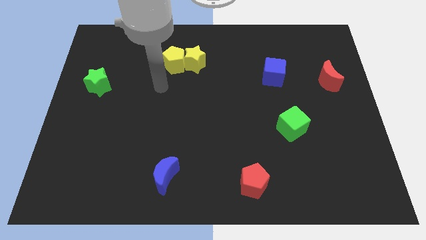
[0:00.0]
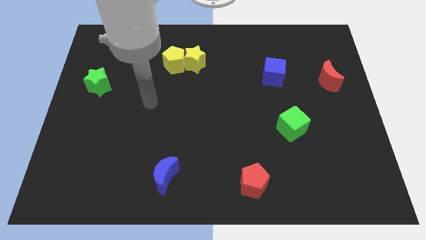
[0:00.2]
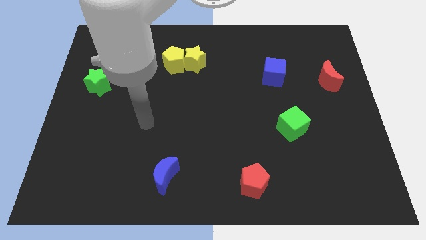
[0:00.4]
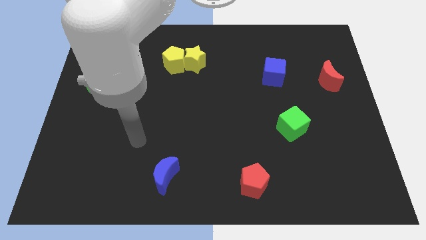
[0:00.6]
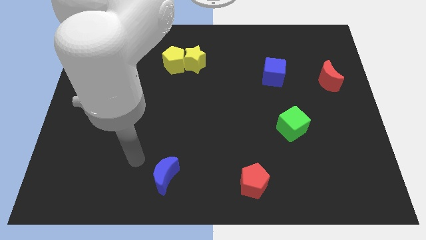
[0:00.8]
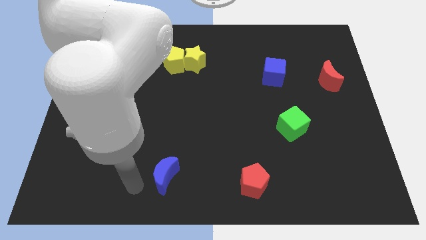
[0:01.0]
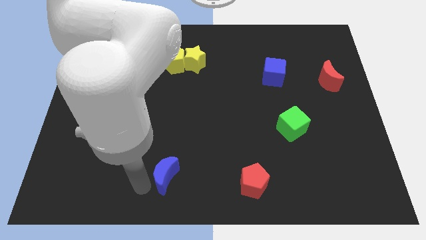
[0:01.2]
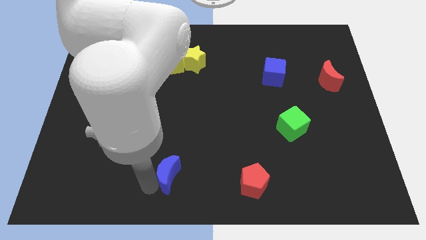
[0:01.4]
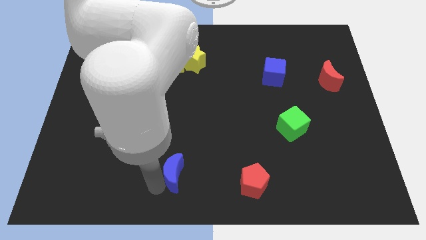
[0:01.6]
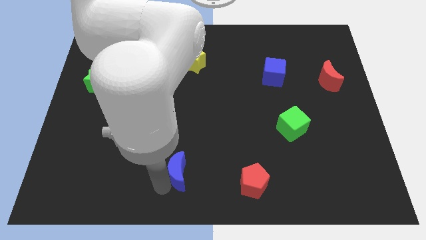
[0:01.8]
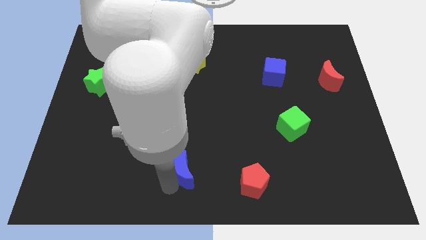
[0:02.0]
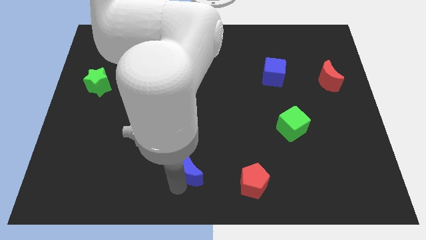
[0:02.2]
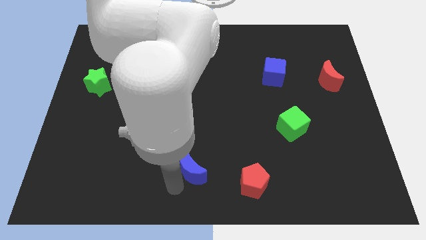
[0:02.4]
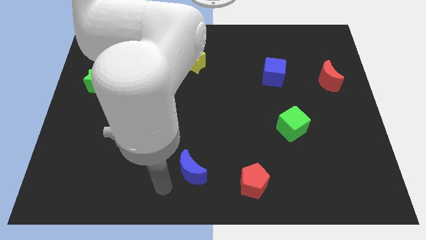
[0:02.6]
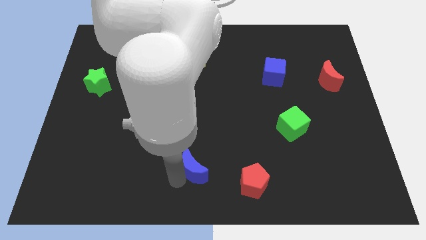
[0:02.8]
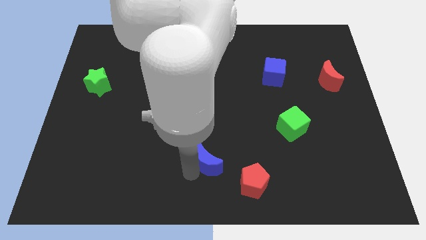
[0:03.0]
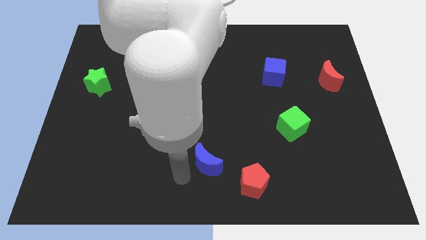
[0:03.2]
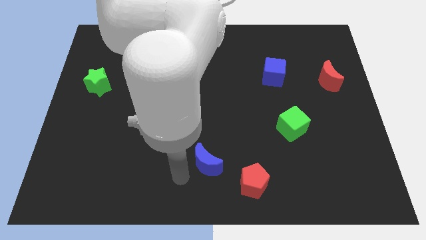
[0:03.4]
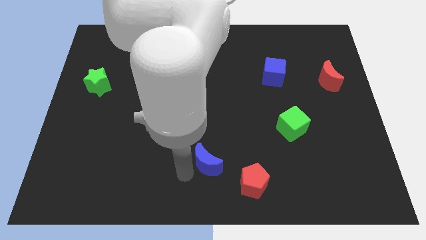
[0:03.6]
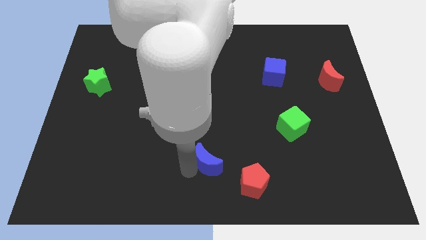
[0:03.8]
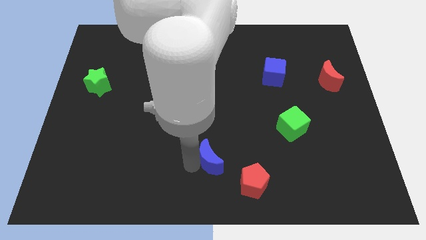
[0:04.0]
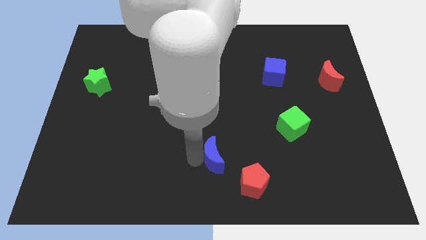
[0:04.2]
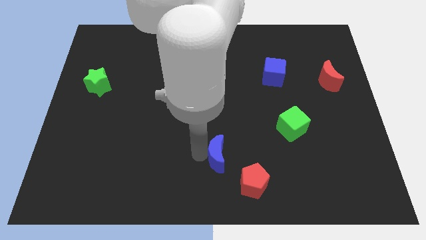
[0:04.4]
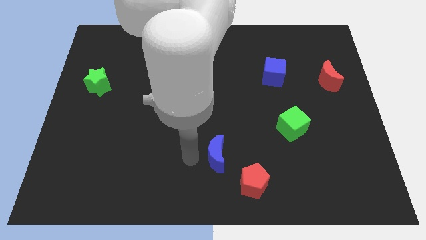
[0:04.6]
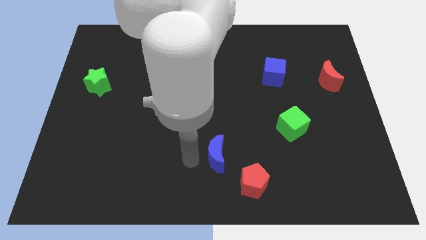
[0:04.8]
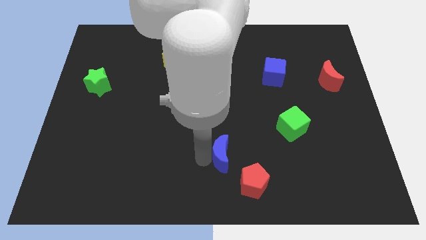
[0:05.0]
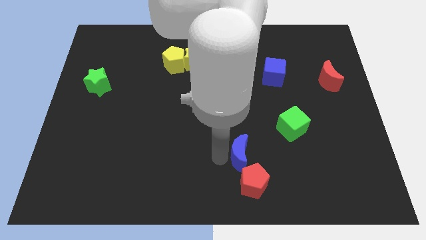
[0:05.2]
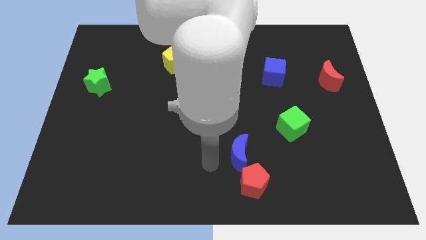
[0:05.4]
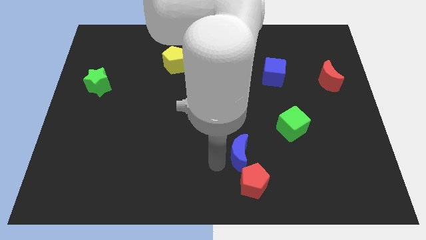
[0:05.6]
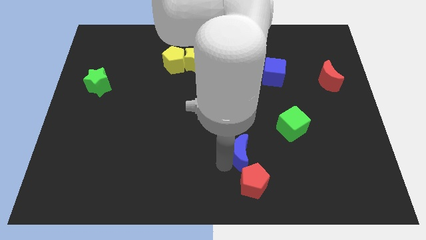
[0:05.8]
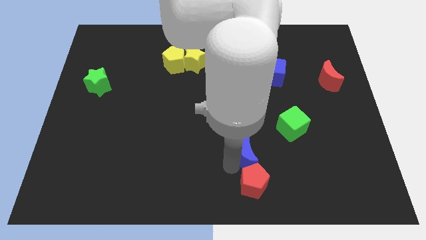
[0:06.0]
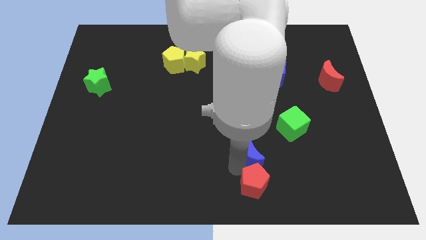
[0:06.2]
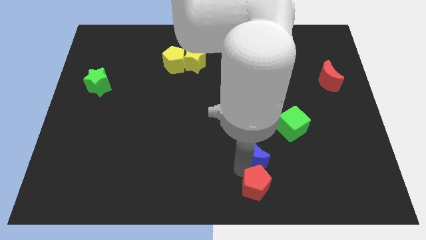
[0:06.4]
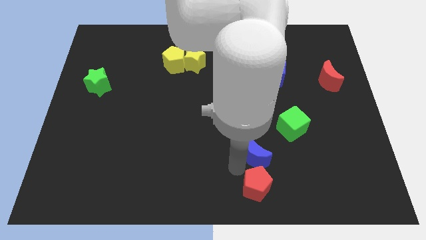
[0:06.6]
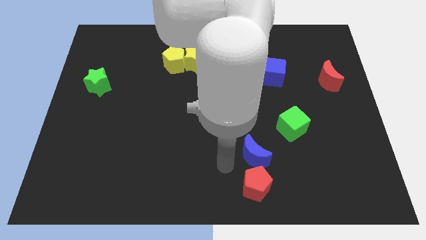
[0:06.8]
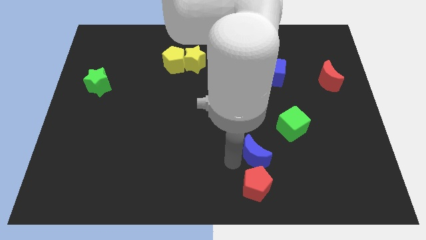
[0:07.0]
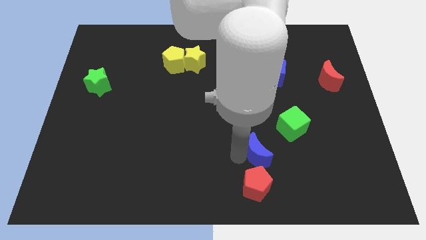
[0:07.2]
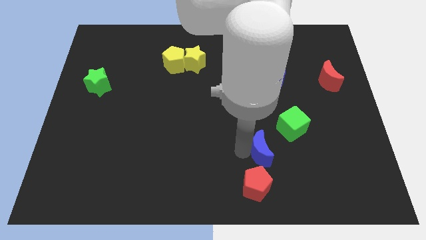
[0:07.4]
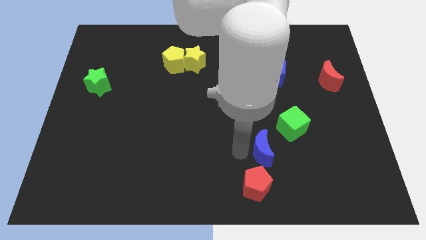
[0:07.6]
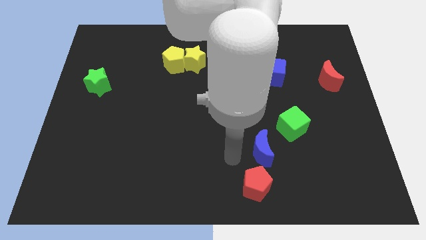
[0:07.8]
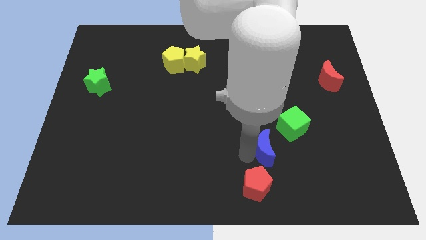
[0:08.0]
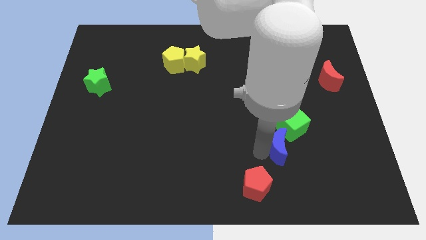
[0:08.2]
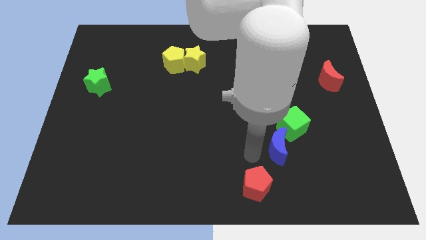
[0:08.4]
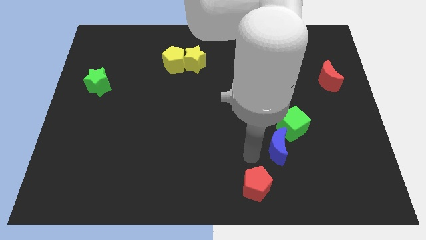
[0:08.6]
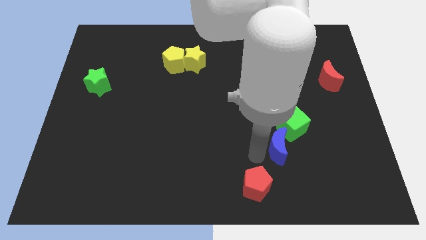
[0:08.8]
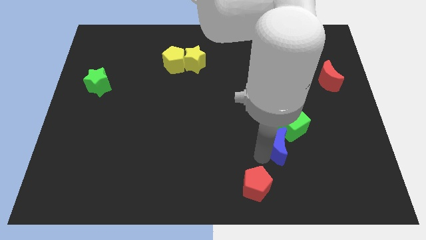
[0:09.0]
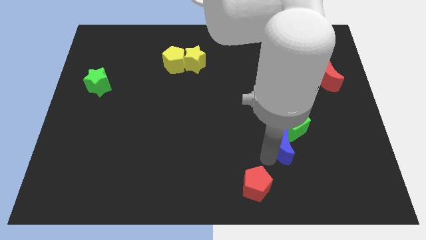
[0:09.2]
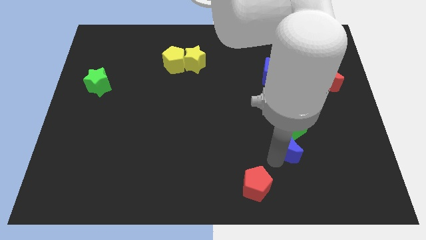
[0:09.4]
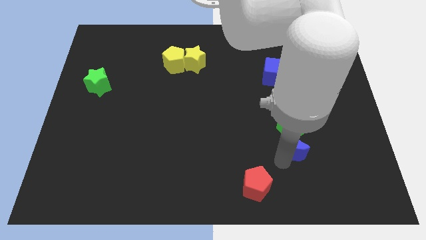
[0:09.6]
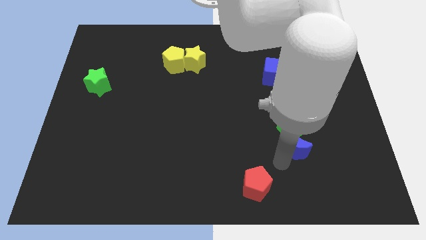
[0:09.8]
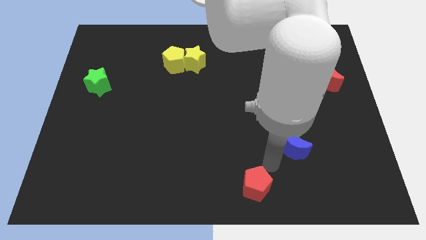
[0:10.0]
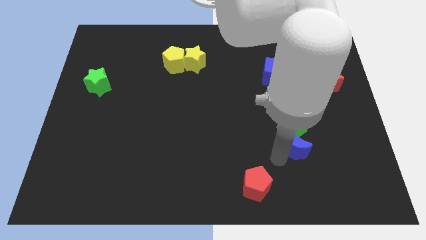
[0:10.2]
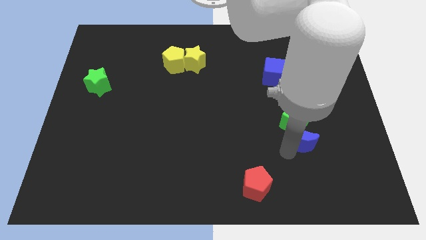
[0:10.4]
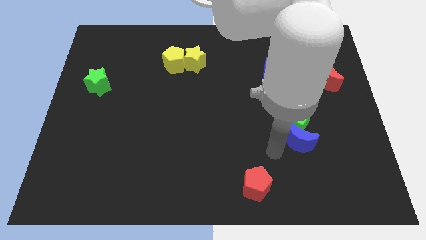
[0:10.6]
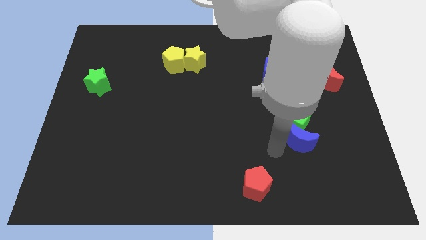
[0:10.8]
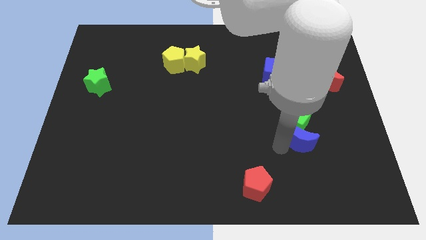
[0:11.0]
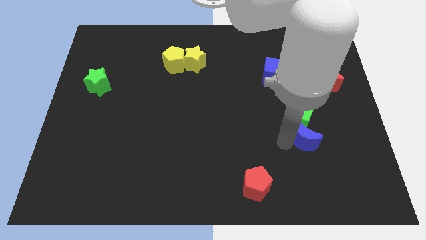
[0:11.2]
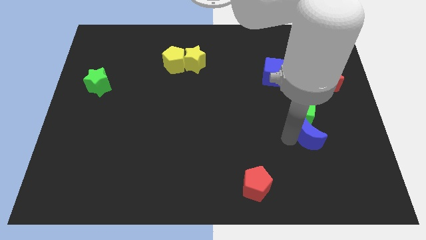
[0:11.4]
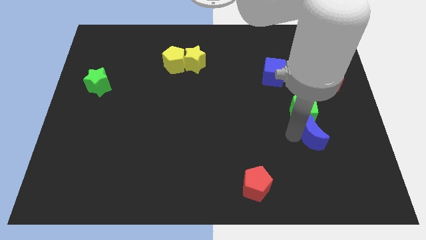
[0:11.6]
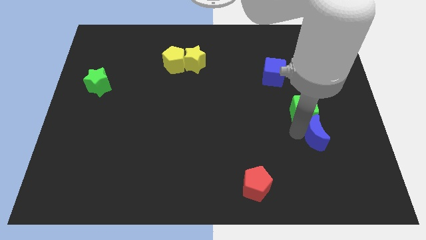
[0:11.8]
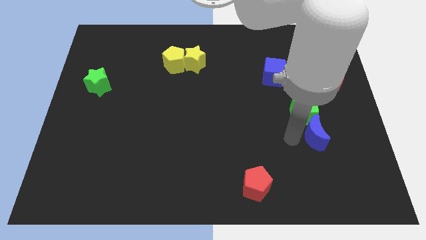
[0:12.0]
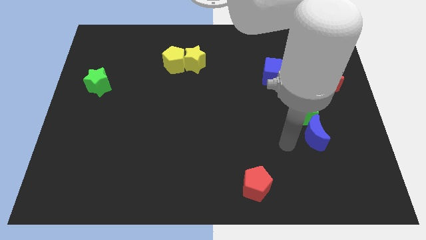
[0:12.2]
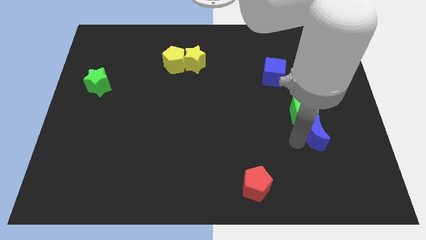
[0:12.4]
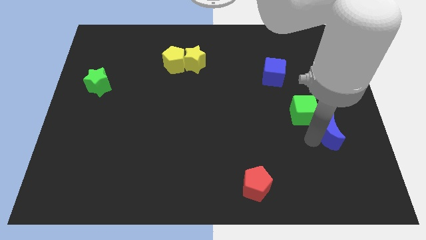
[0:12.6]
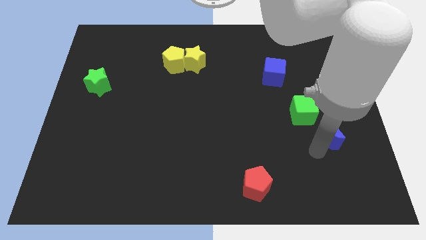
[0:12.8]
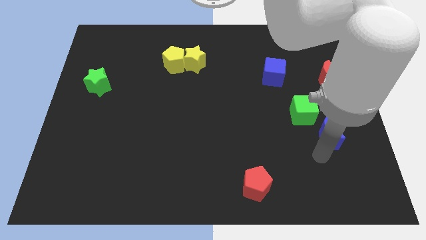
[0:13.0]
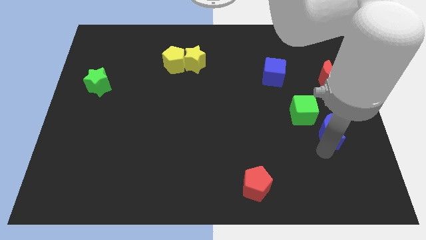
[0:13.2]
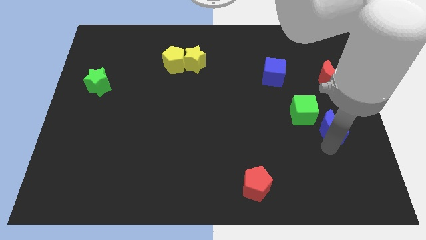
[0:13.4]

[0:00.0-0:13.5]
slide the blue moon to the bottom side of the red moon
